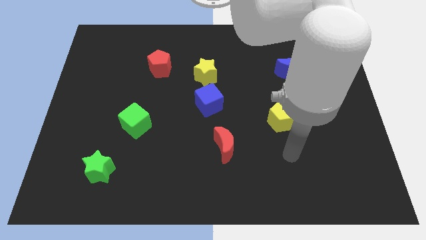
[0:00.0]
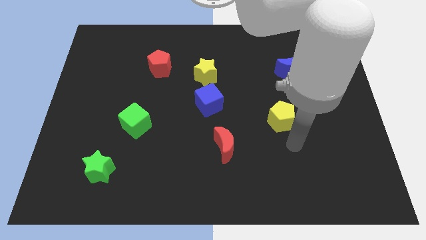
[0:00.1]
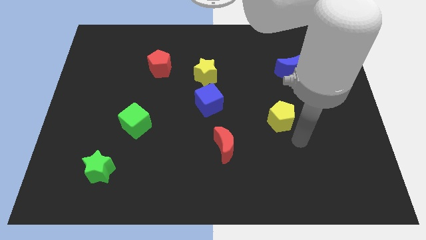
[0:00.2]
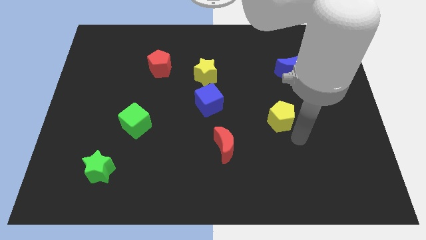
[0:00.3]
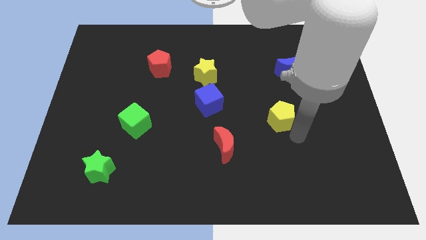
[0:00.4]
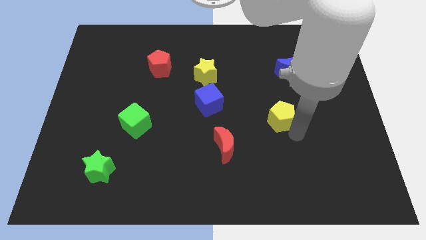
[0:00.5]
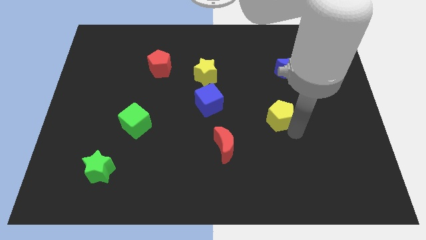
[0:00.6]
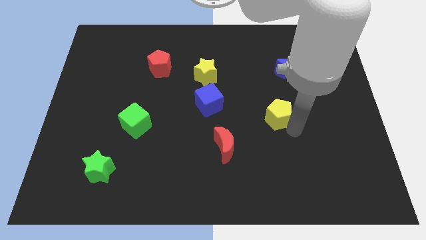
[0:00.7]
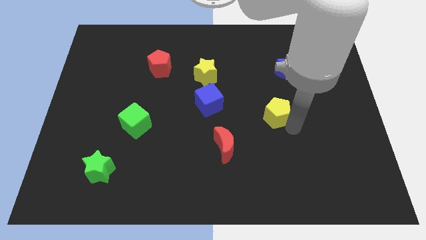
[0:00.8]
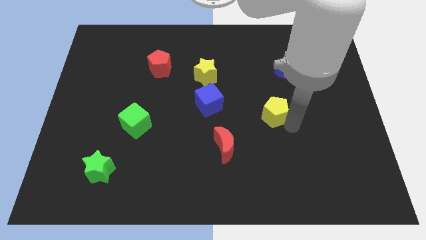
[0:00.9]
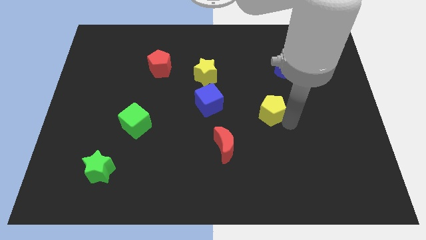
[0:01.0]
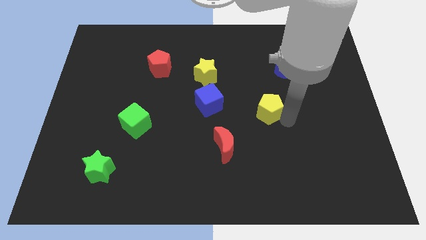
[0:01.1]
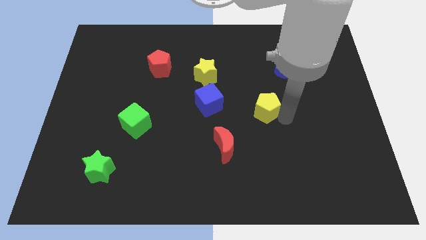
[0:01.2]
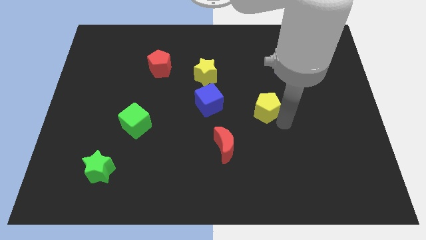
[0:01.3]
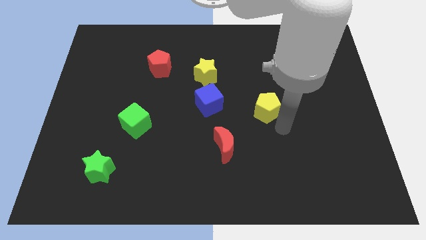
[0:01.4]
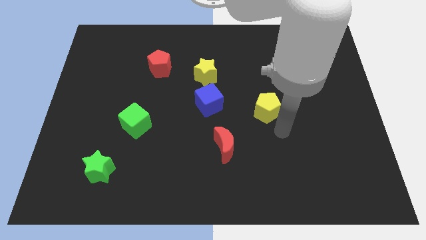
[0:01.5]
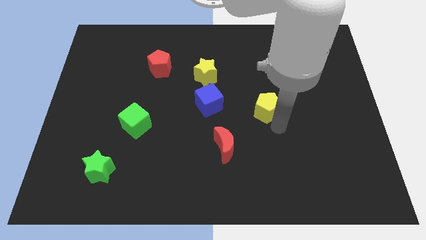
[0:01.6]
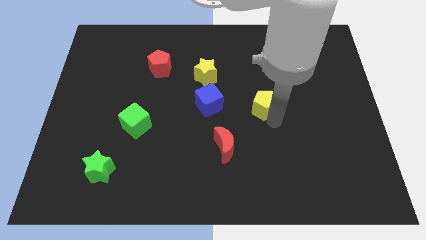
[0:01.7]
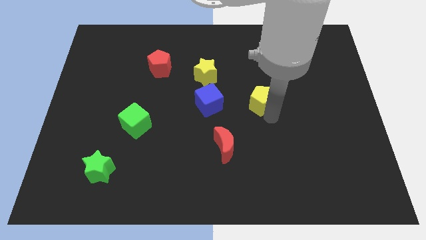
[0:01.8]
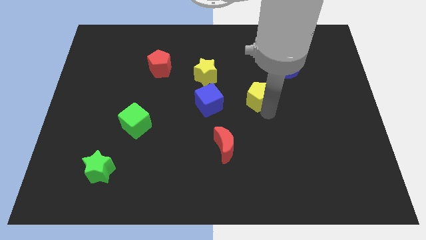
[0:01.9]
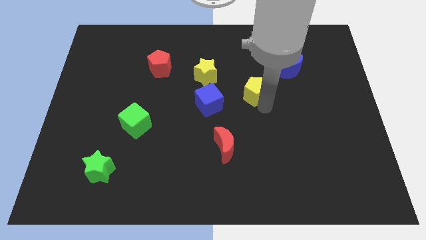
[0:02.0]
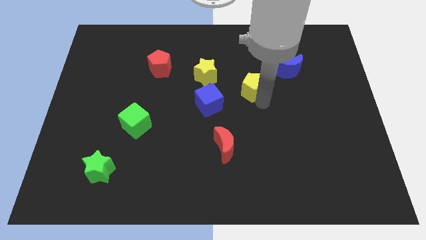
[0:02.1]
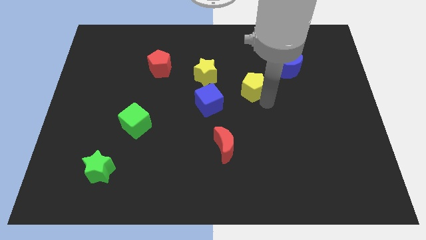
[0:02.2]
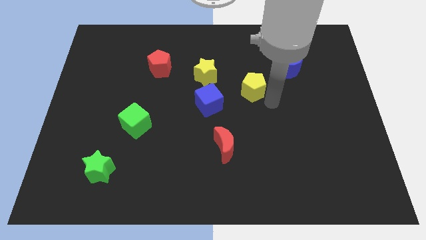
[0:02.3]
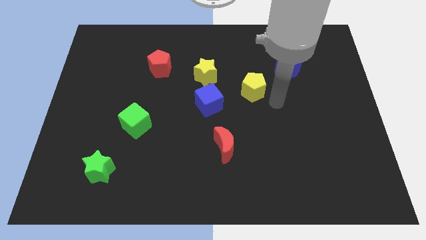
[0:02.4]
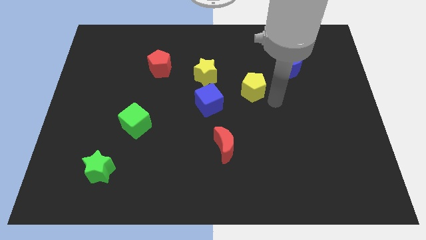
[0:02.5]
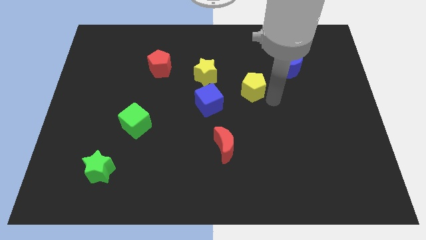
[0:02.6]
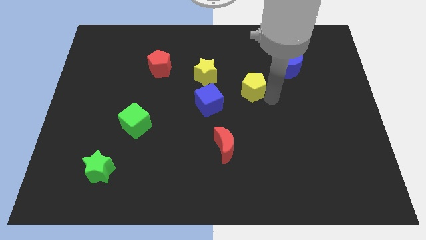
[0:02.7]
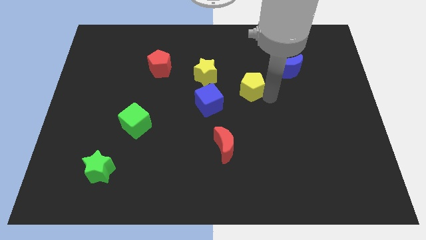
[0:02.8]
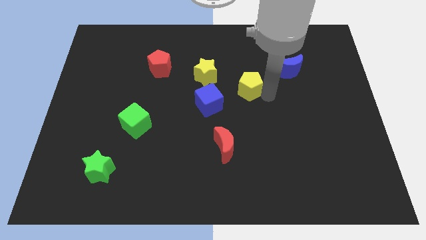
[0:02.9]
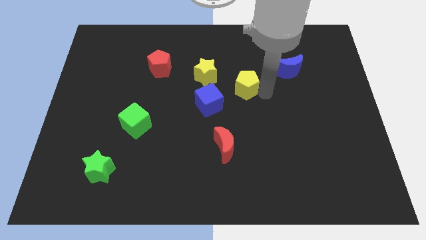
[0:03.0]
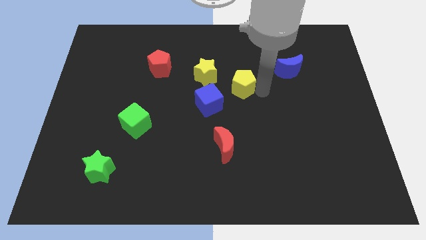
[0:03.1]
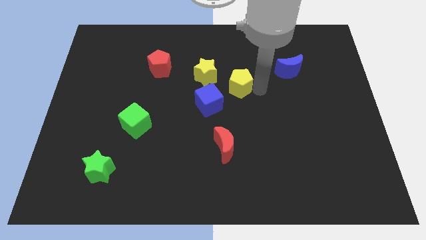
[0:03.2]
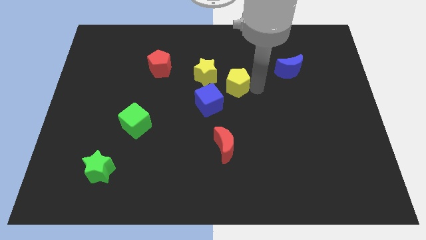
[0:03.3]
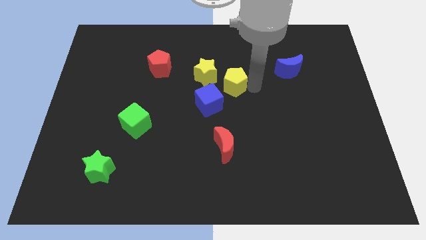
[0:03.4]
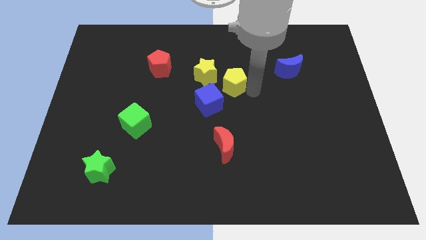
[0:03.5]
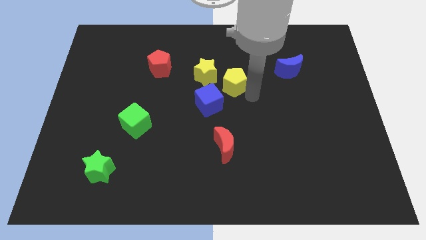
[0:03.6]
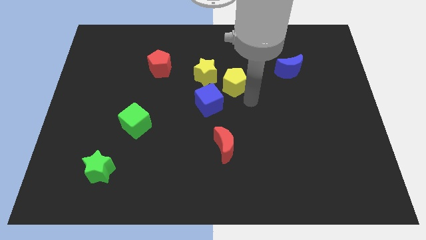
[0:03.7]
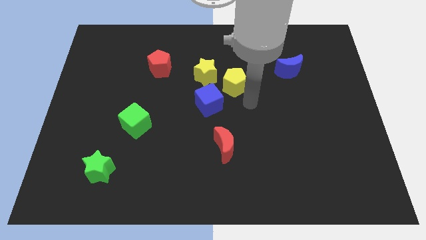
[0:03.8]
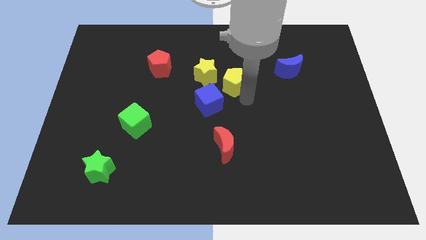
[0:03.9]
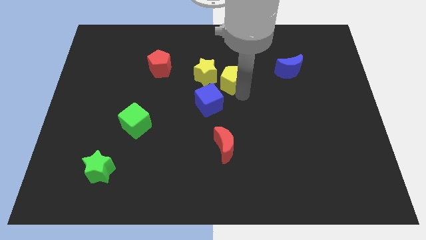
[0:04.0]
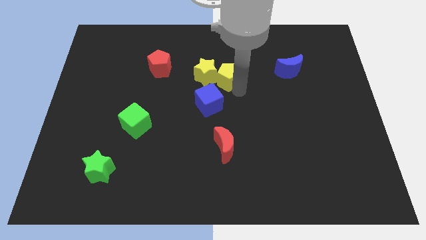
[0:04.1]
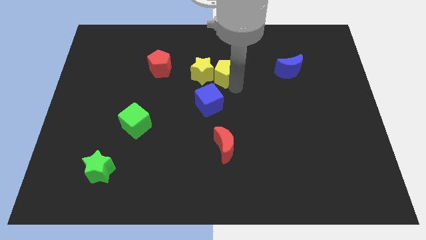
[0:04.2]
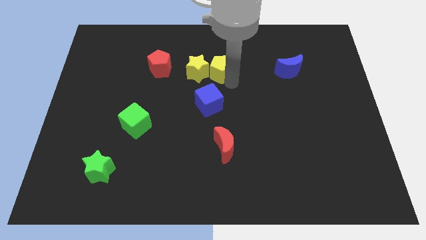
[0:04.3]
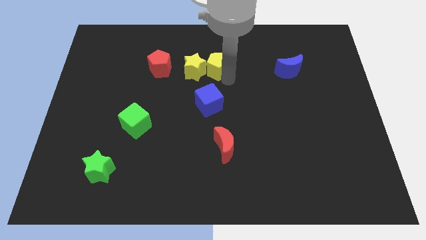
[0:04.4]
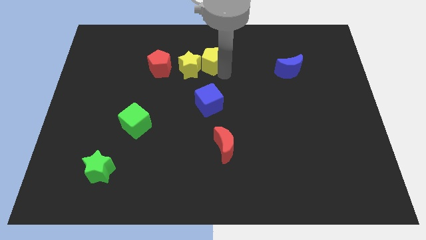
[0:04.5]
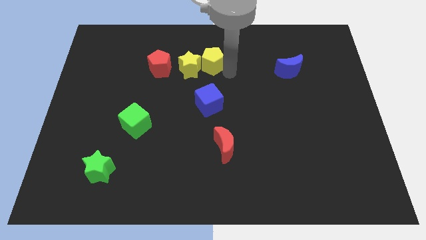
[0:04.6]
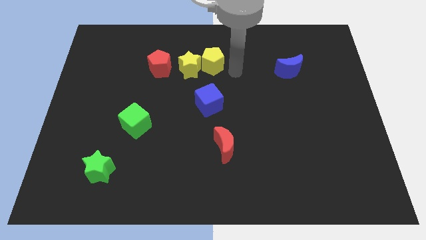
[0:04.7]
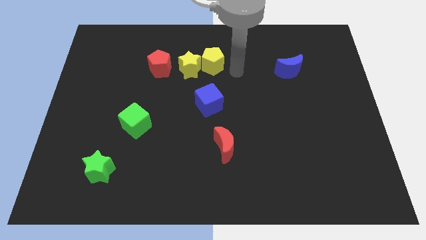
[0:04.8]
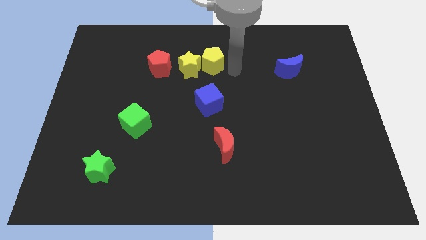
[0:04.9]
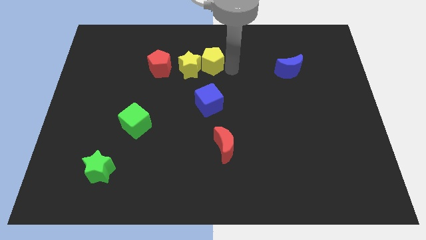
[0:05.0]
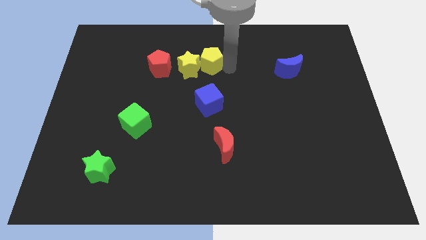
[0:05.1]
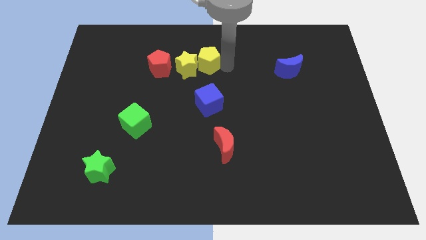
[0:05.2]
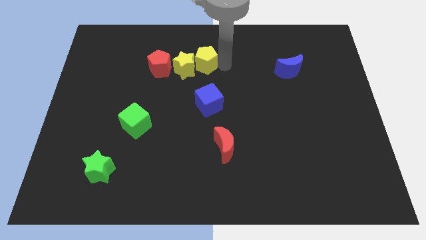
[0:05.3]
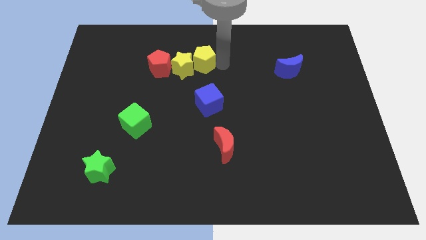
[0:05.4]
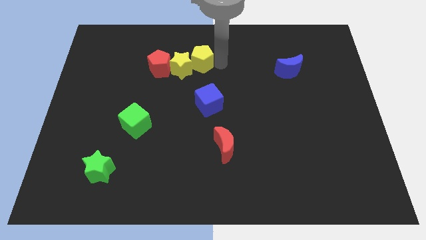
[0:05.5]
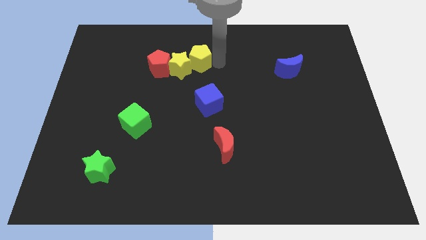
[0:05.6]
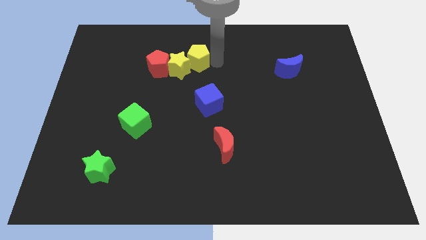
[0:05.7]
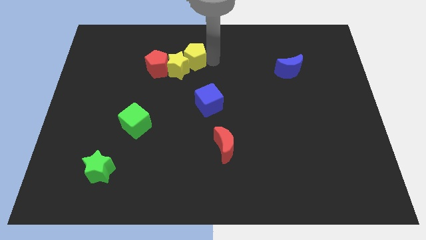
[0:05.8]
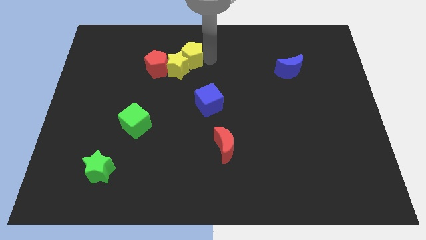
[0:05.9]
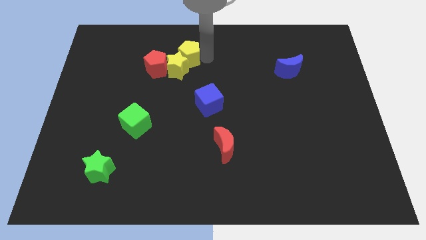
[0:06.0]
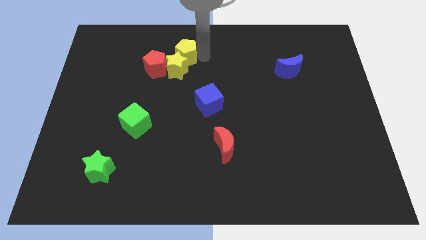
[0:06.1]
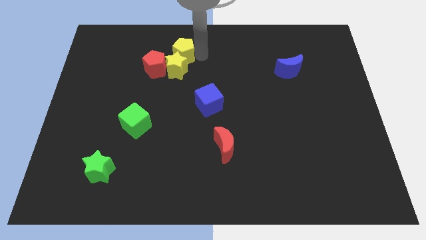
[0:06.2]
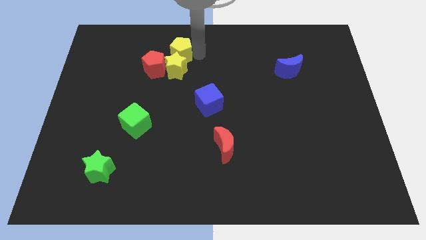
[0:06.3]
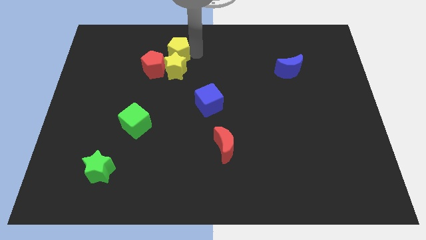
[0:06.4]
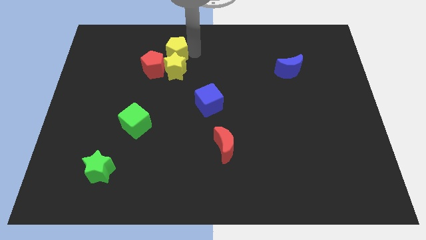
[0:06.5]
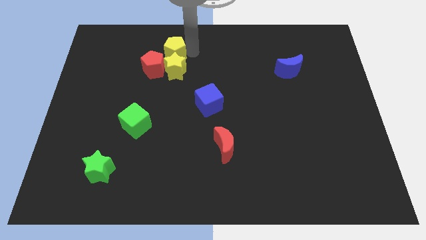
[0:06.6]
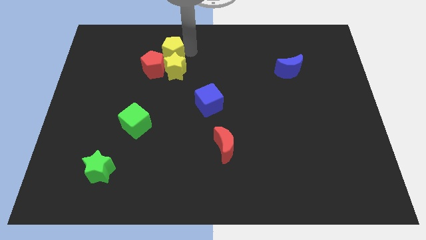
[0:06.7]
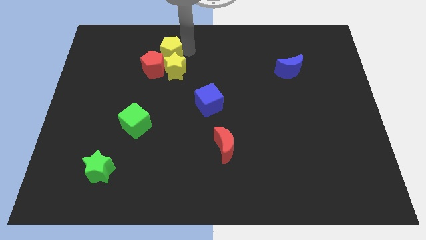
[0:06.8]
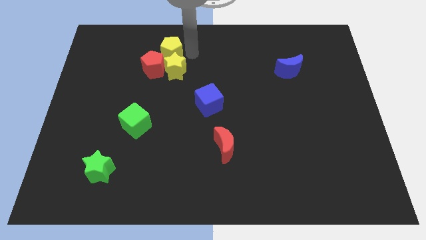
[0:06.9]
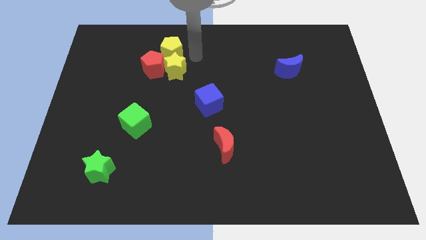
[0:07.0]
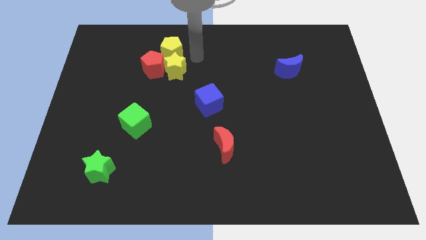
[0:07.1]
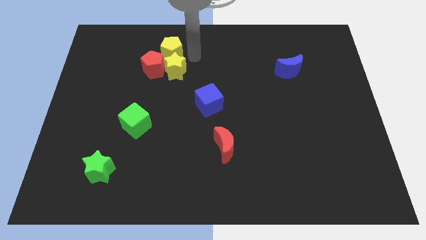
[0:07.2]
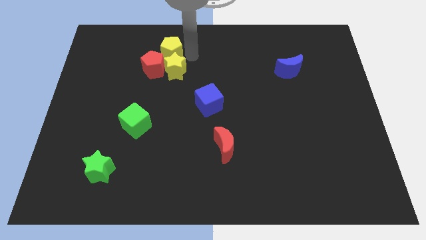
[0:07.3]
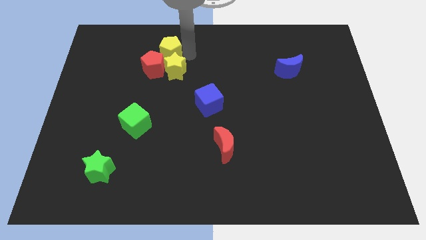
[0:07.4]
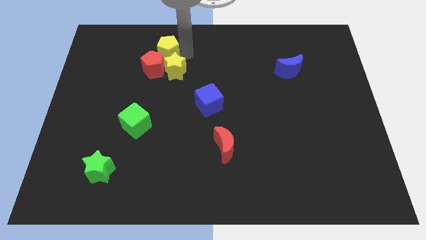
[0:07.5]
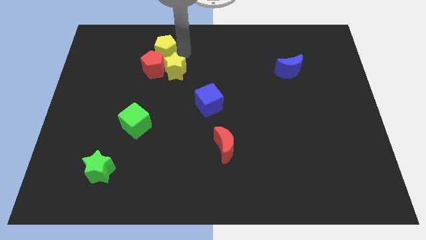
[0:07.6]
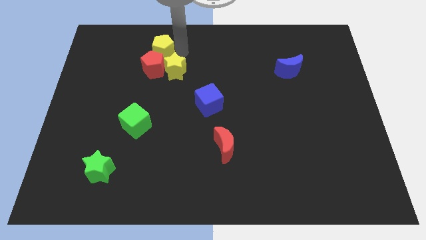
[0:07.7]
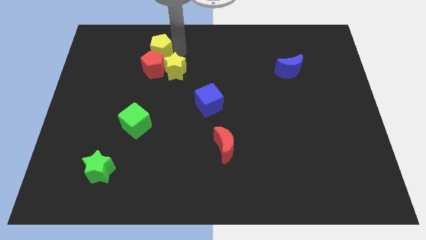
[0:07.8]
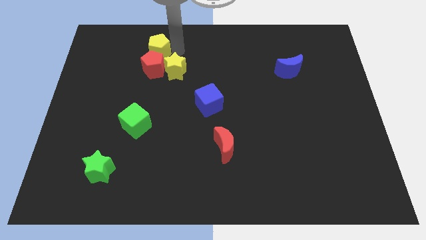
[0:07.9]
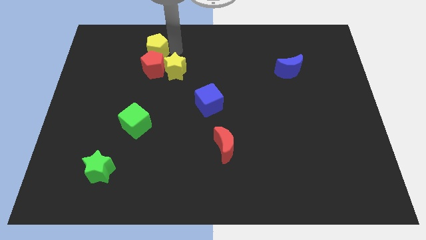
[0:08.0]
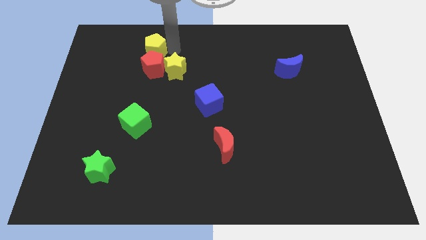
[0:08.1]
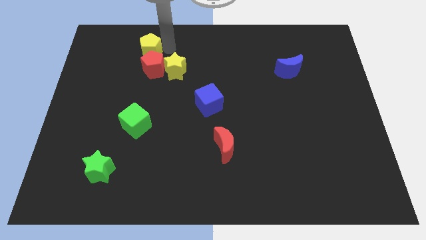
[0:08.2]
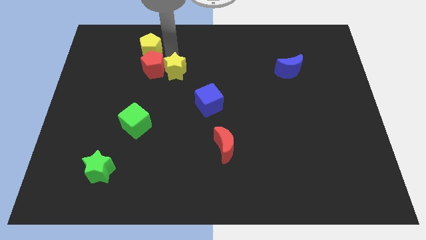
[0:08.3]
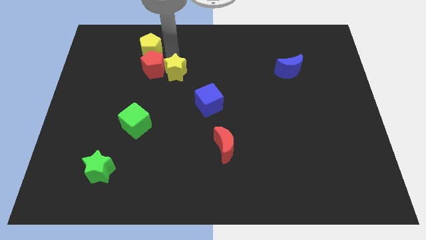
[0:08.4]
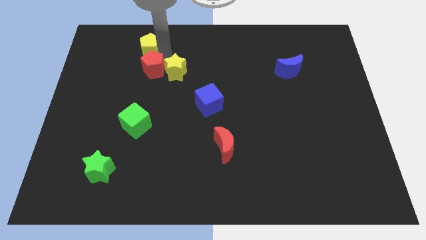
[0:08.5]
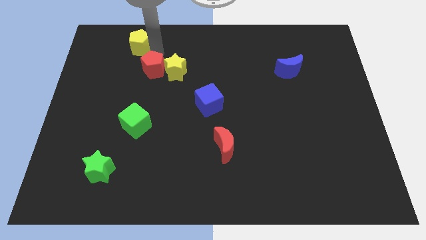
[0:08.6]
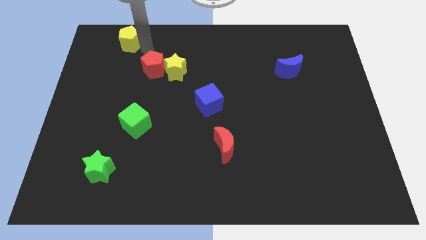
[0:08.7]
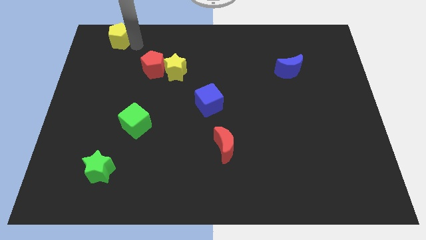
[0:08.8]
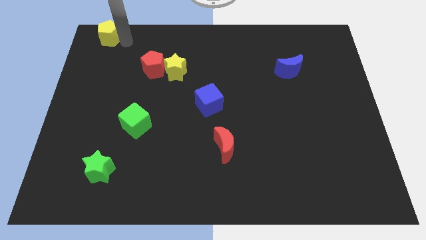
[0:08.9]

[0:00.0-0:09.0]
move the yellow pentagon to the top left corner
